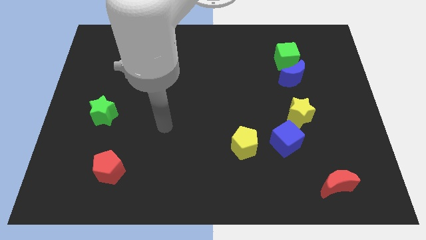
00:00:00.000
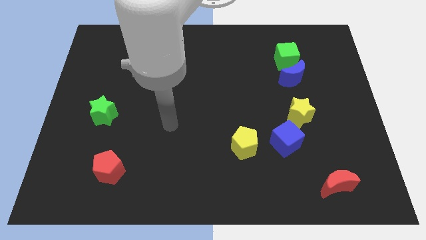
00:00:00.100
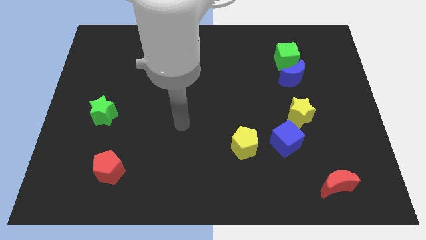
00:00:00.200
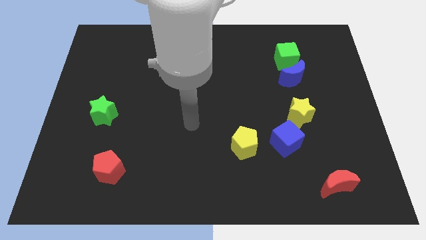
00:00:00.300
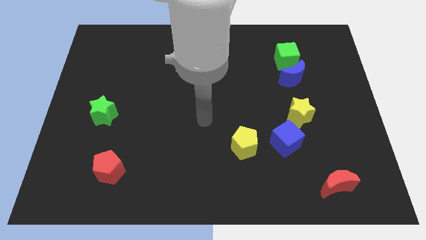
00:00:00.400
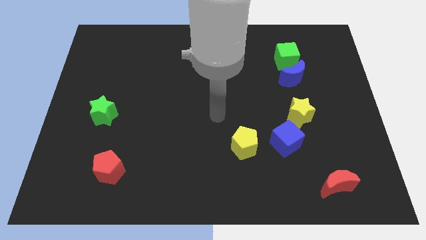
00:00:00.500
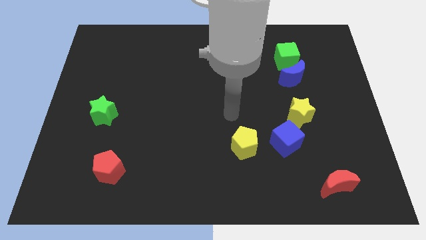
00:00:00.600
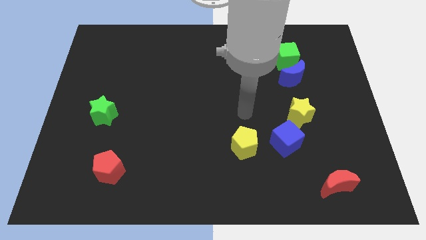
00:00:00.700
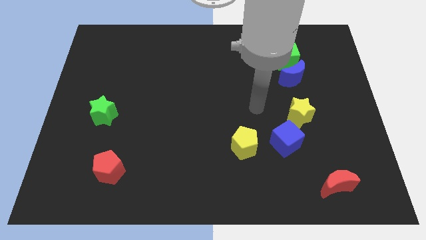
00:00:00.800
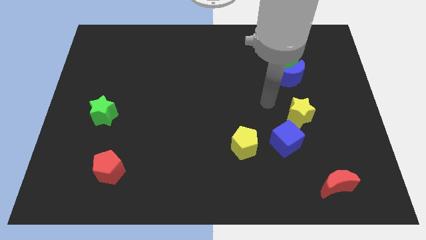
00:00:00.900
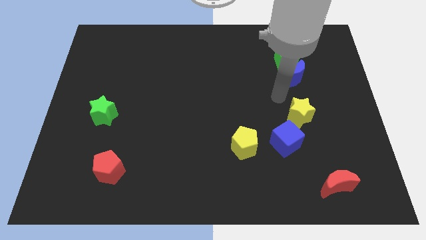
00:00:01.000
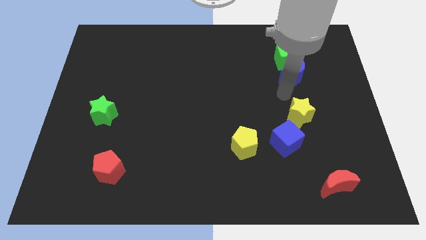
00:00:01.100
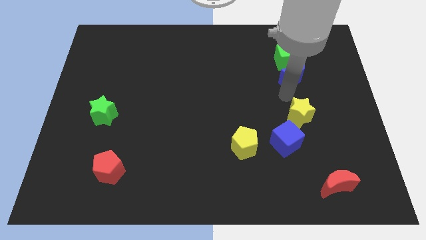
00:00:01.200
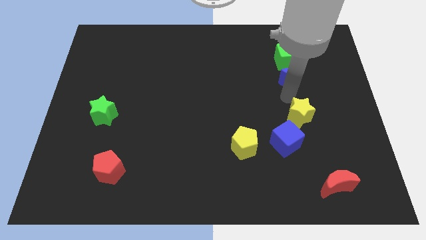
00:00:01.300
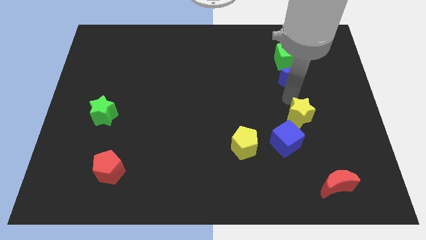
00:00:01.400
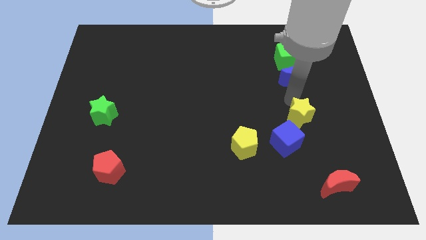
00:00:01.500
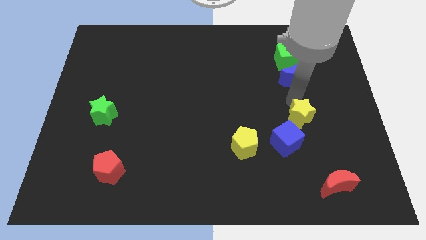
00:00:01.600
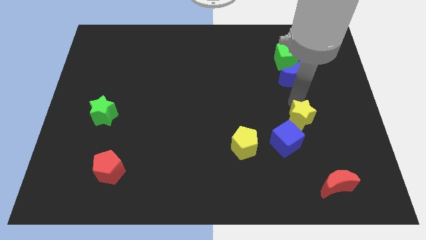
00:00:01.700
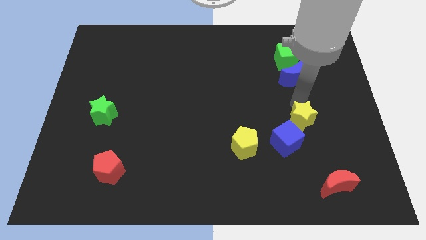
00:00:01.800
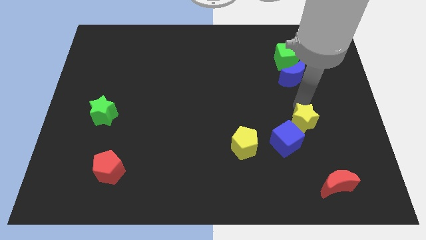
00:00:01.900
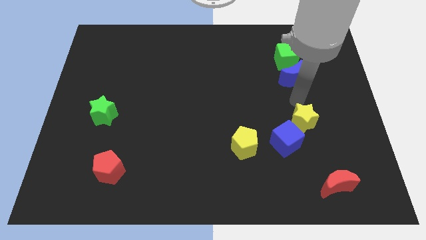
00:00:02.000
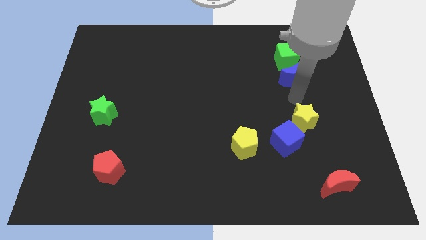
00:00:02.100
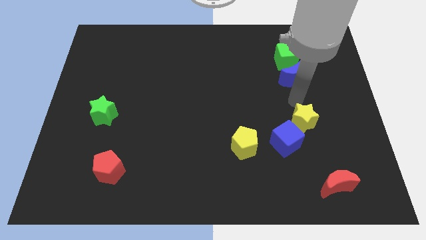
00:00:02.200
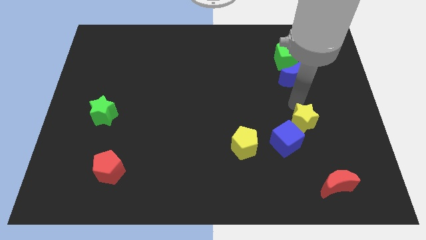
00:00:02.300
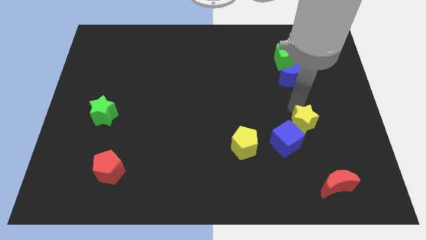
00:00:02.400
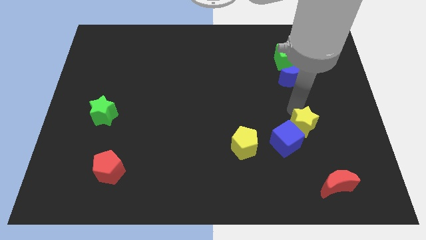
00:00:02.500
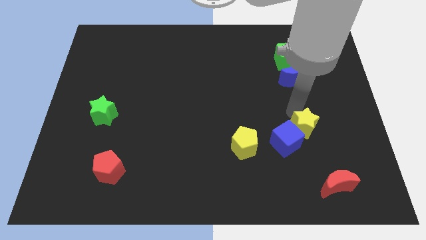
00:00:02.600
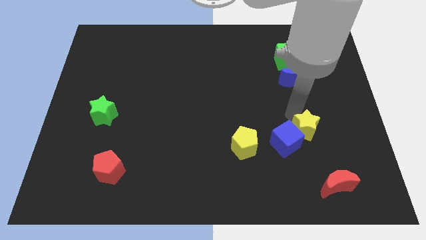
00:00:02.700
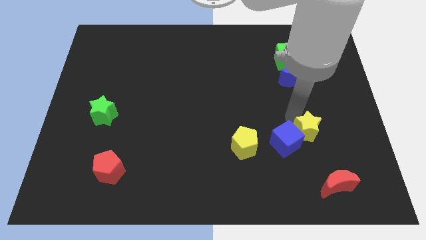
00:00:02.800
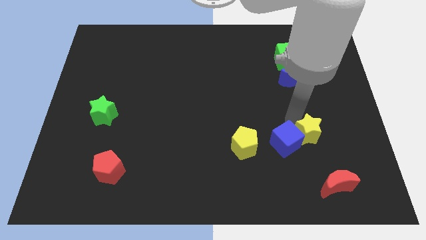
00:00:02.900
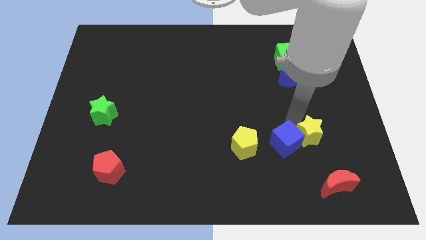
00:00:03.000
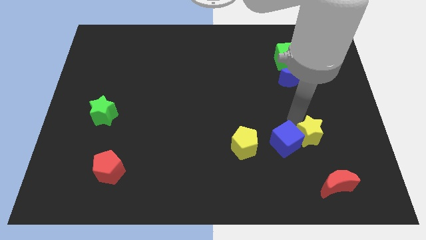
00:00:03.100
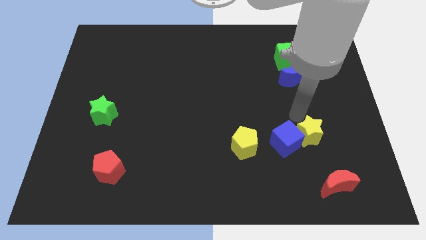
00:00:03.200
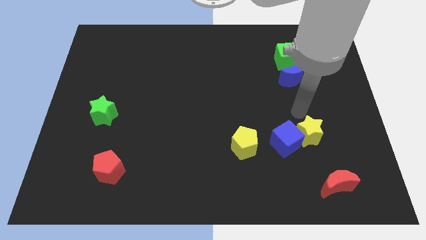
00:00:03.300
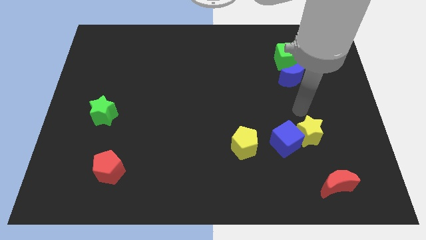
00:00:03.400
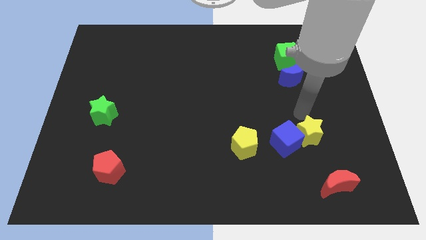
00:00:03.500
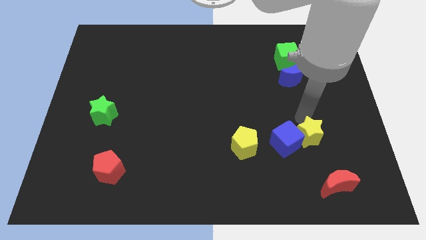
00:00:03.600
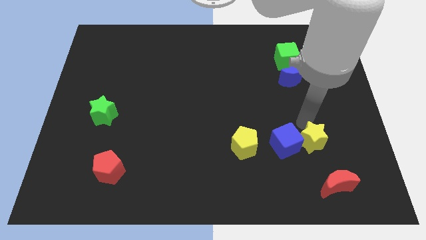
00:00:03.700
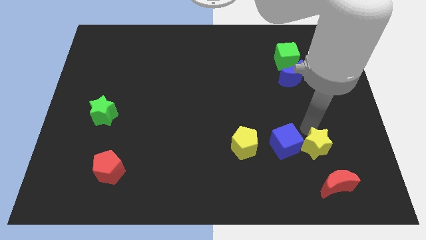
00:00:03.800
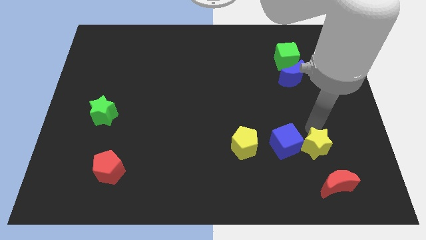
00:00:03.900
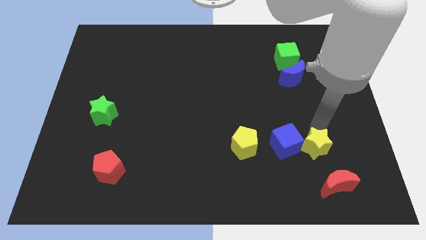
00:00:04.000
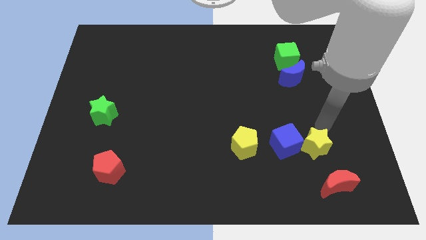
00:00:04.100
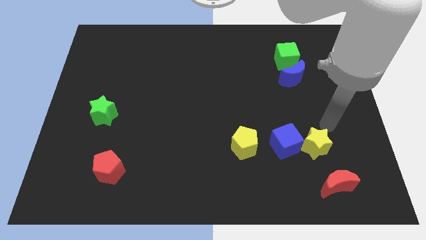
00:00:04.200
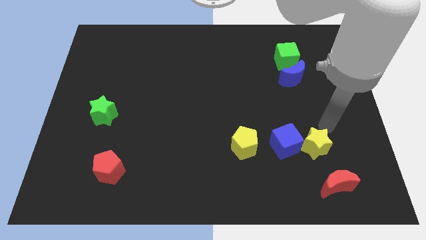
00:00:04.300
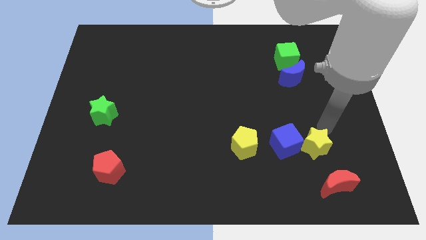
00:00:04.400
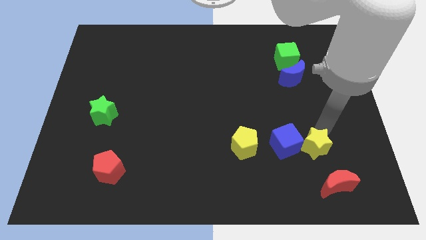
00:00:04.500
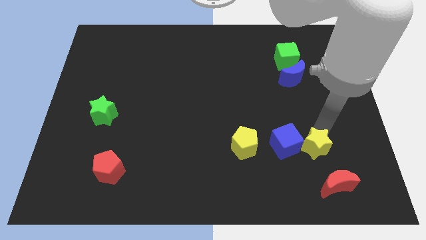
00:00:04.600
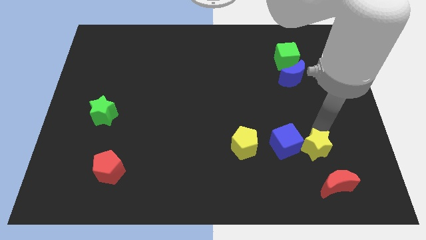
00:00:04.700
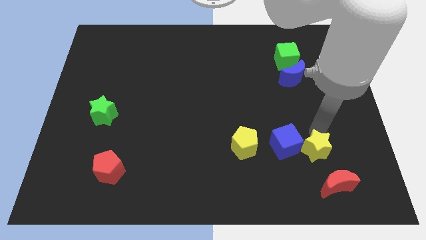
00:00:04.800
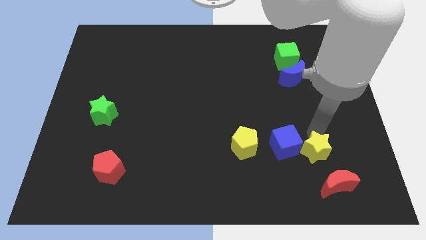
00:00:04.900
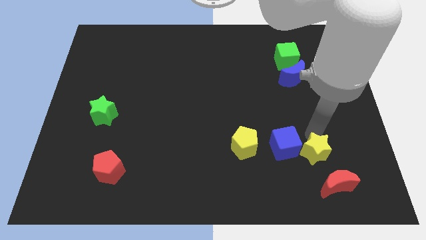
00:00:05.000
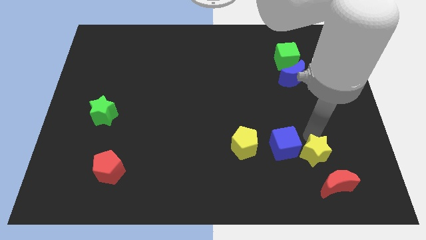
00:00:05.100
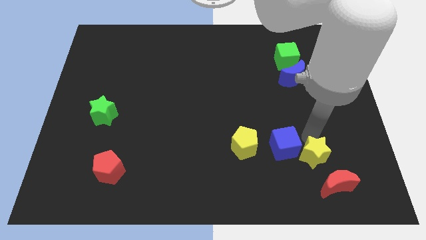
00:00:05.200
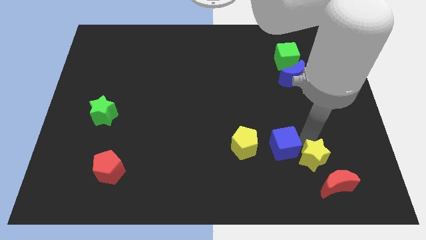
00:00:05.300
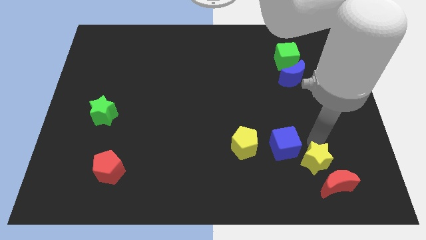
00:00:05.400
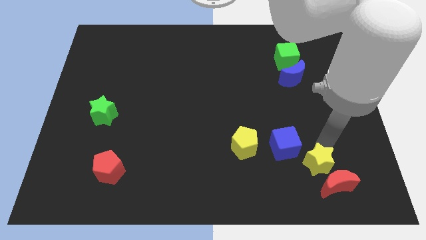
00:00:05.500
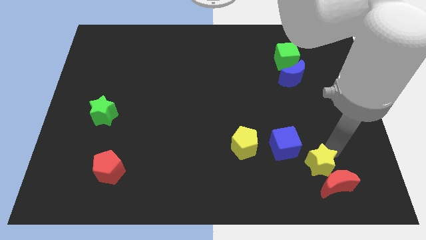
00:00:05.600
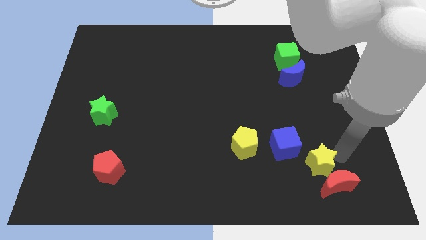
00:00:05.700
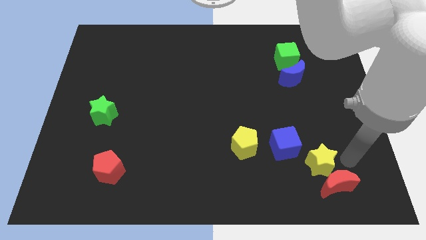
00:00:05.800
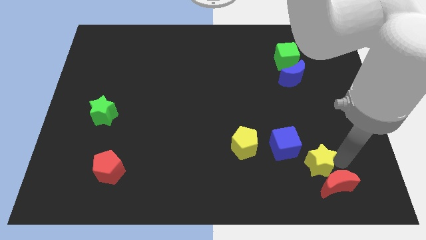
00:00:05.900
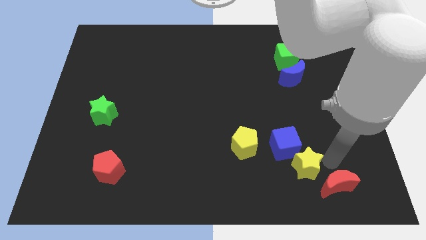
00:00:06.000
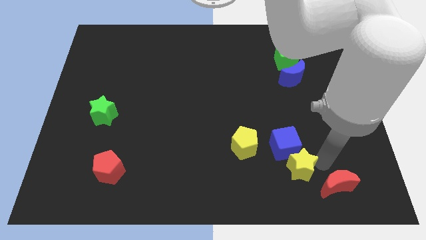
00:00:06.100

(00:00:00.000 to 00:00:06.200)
slightly push the yellow star downwards and left

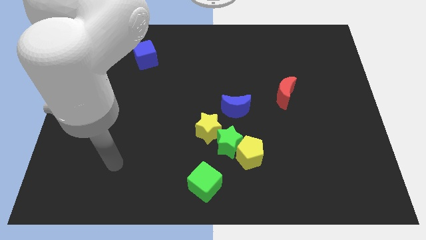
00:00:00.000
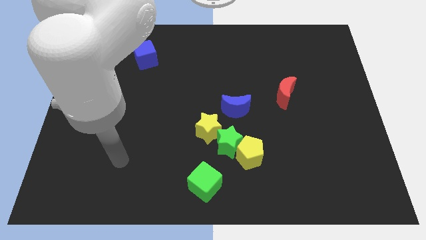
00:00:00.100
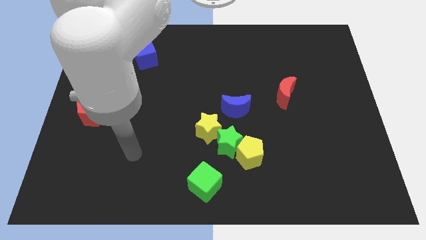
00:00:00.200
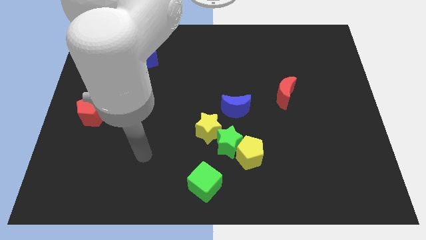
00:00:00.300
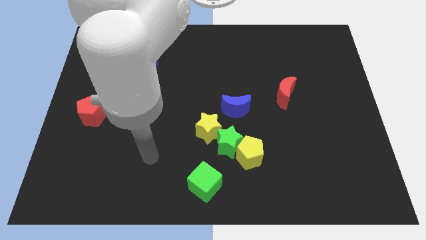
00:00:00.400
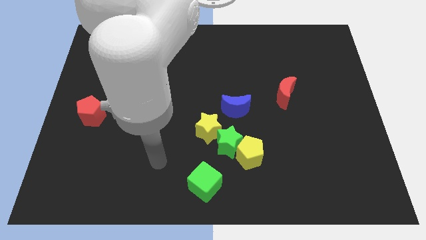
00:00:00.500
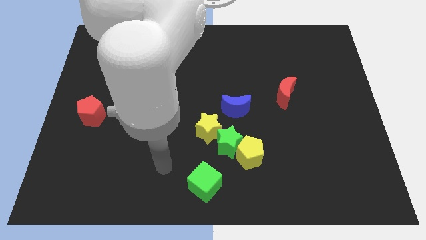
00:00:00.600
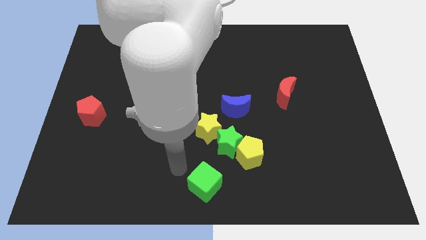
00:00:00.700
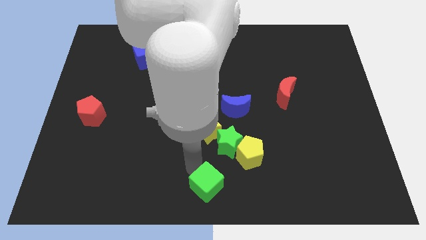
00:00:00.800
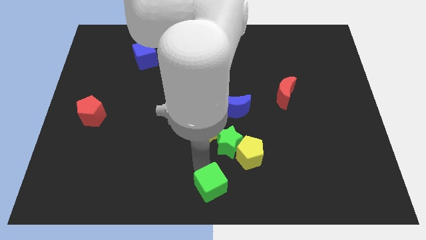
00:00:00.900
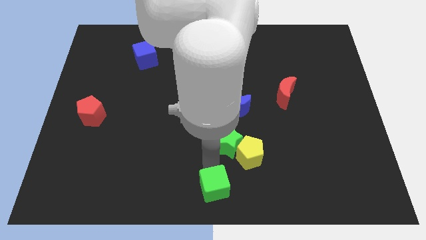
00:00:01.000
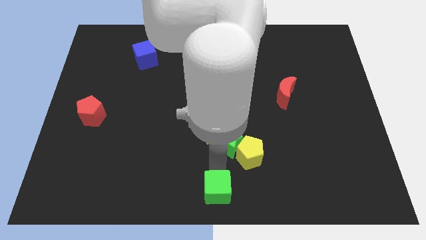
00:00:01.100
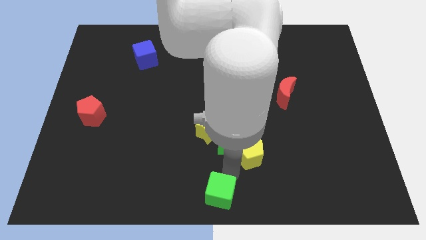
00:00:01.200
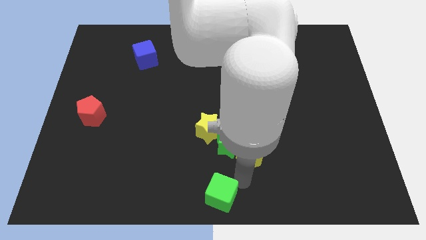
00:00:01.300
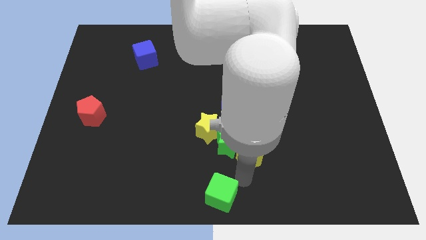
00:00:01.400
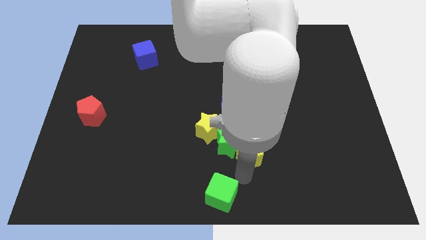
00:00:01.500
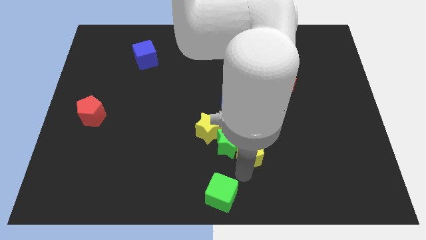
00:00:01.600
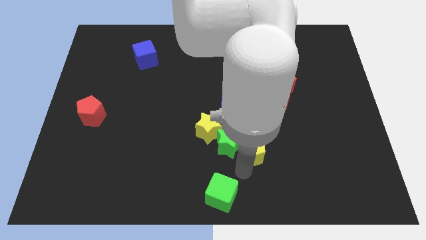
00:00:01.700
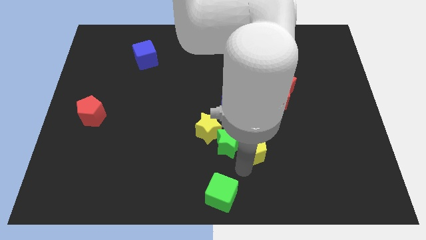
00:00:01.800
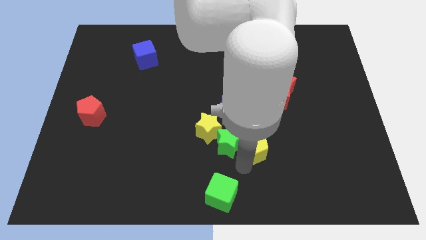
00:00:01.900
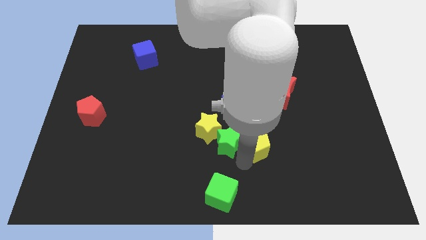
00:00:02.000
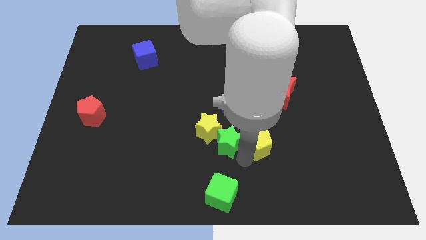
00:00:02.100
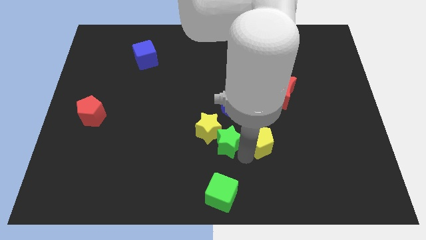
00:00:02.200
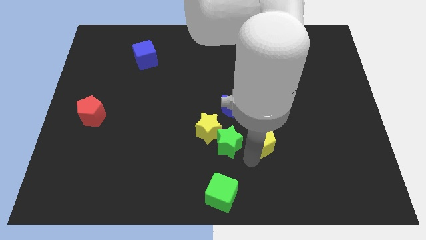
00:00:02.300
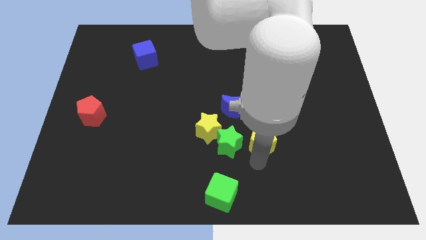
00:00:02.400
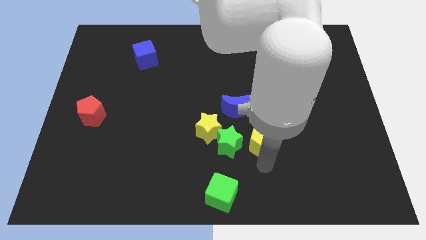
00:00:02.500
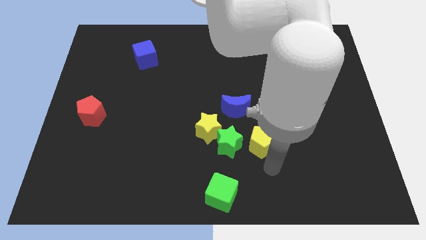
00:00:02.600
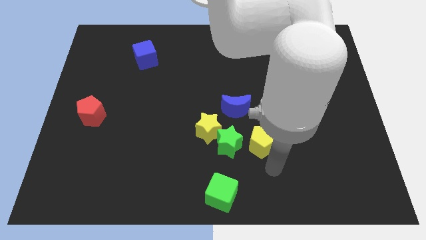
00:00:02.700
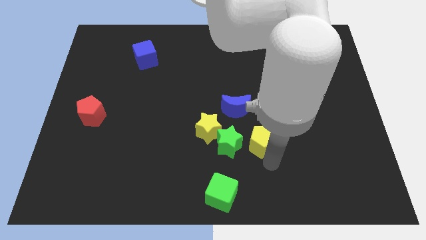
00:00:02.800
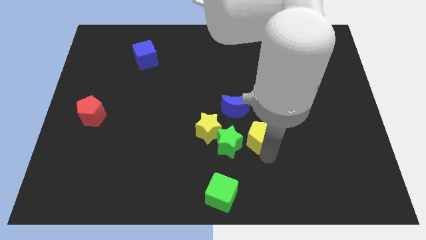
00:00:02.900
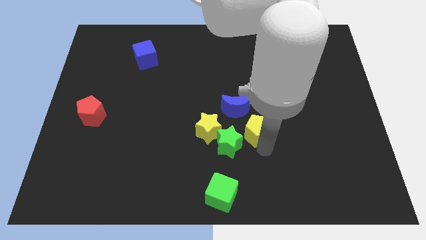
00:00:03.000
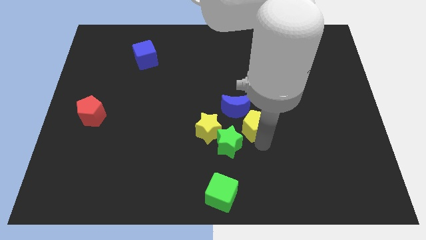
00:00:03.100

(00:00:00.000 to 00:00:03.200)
slide the yellow pentagon upwards a little
